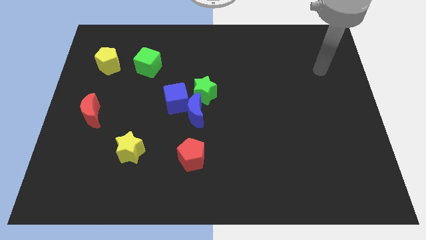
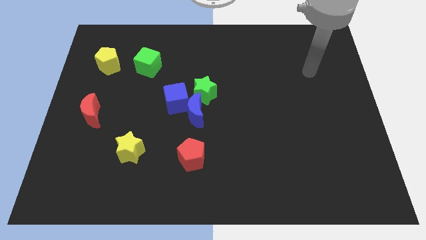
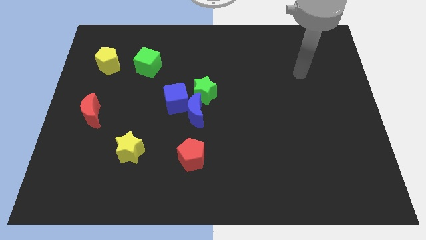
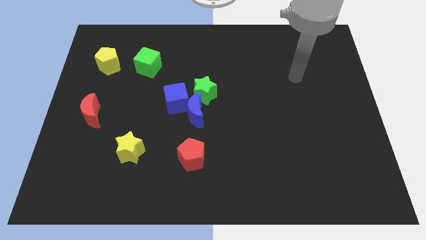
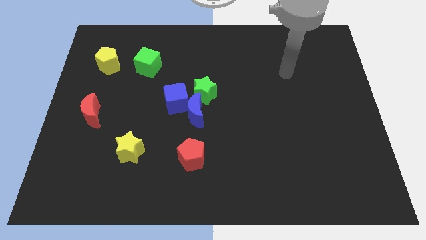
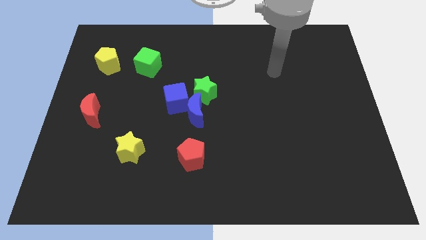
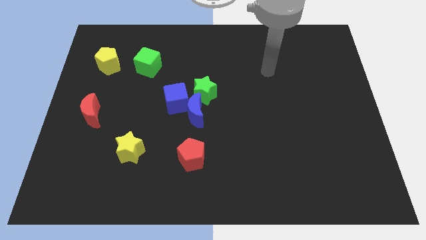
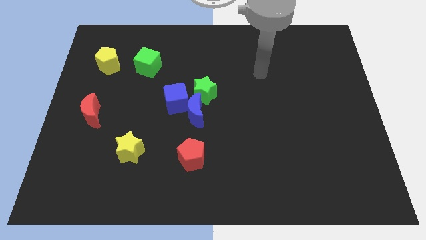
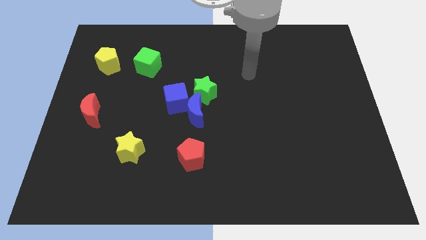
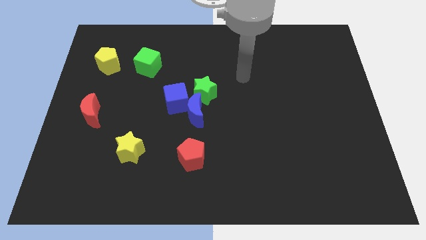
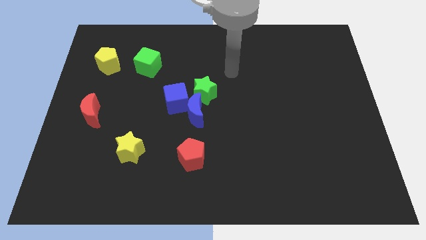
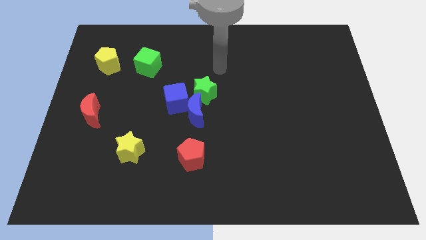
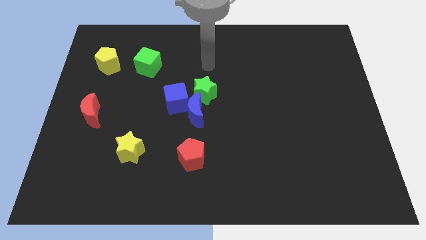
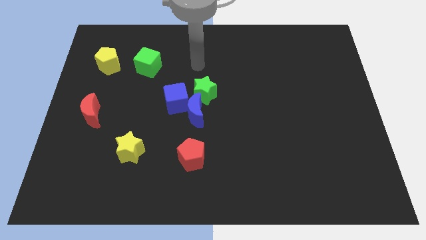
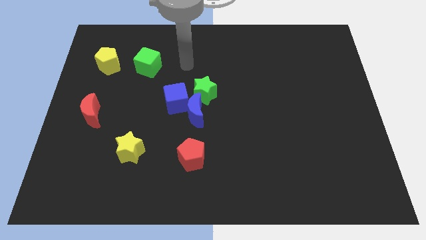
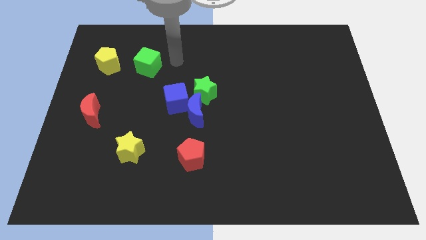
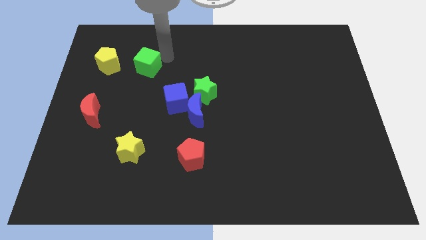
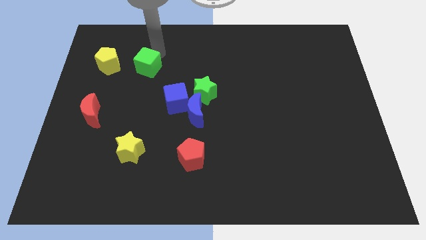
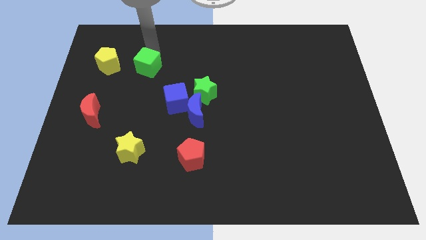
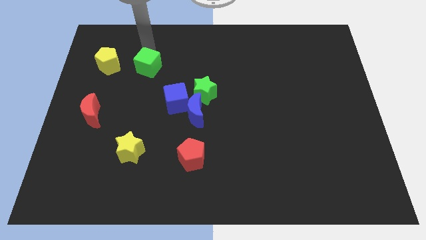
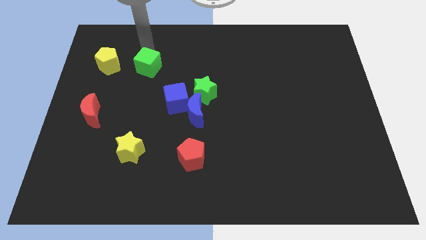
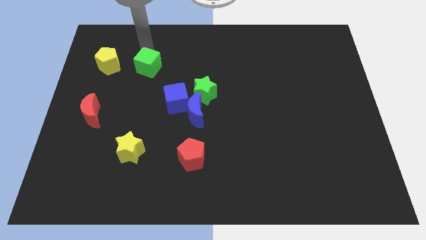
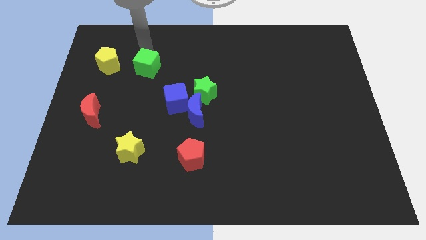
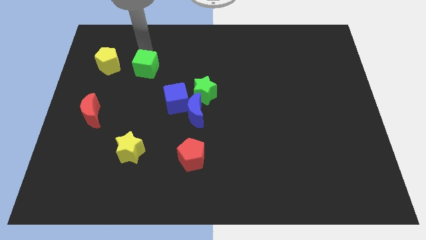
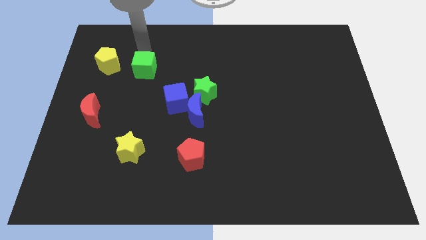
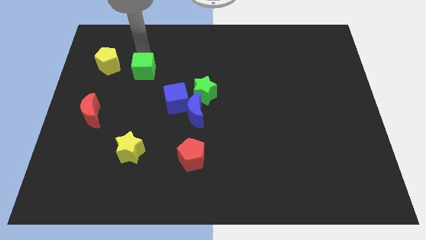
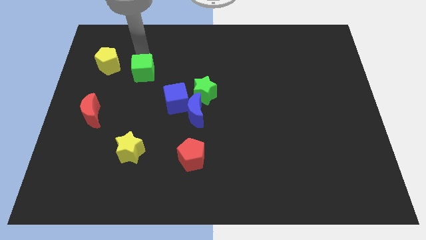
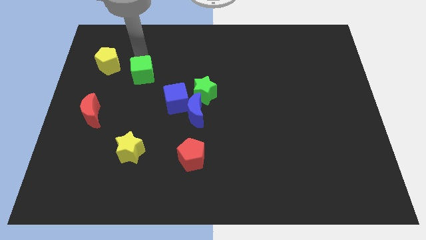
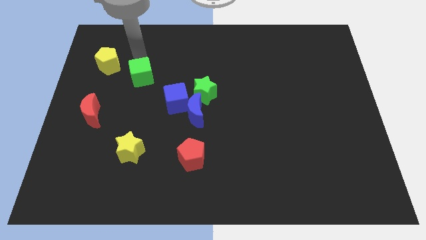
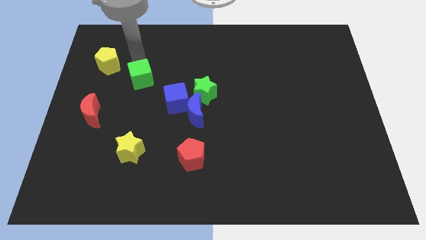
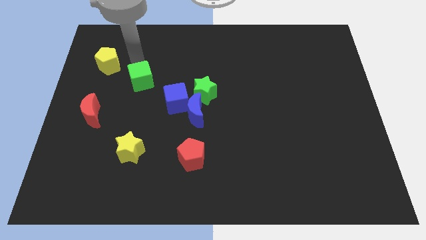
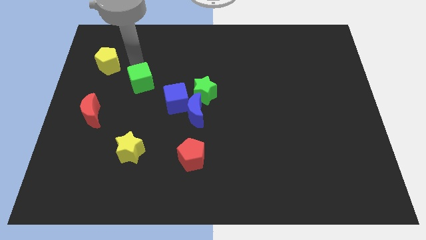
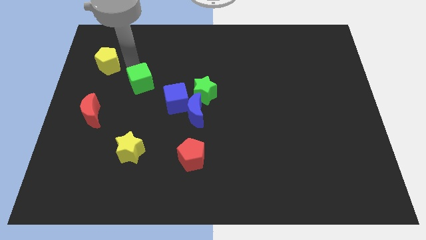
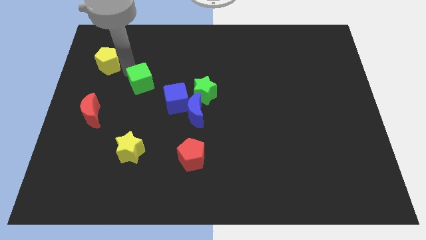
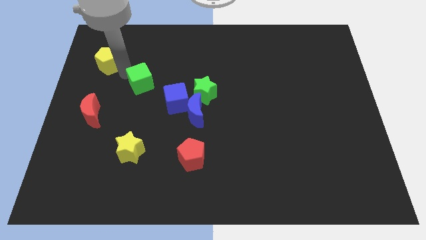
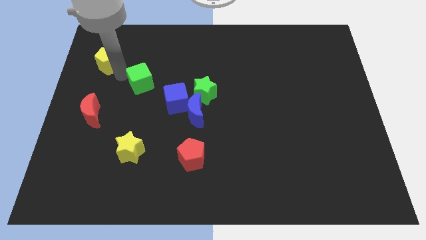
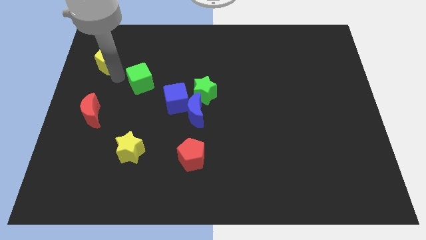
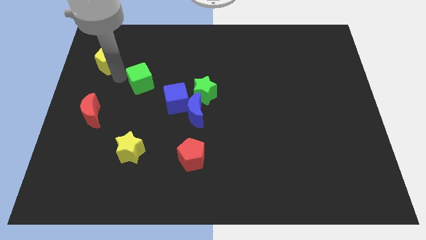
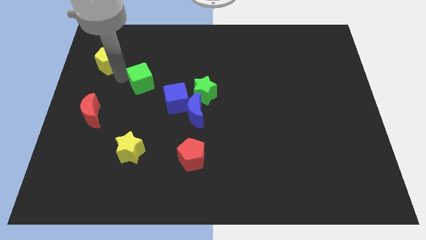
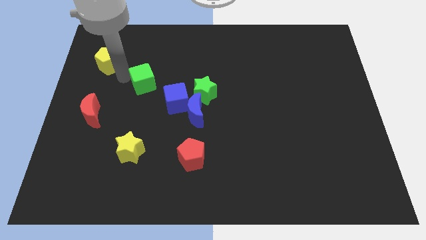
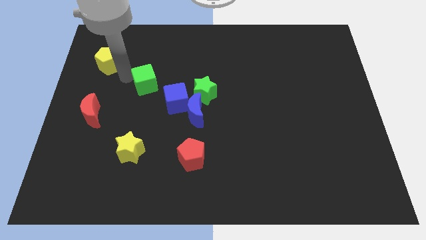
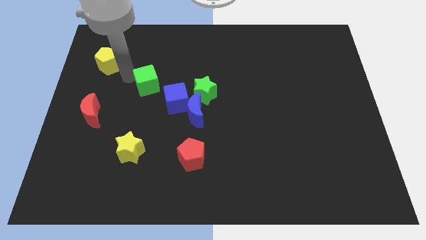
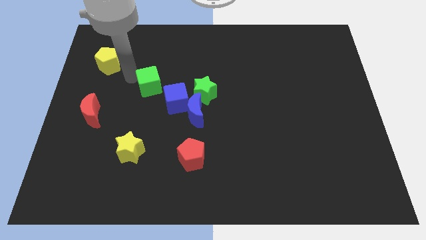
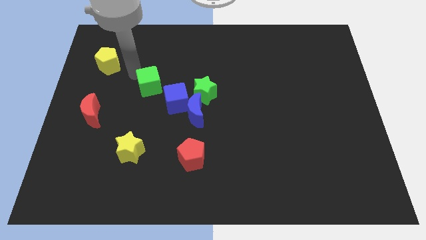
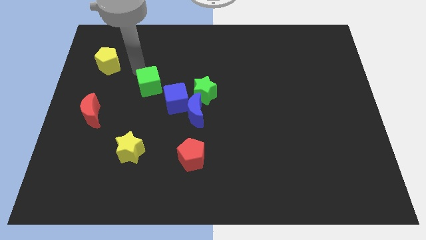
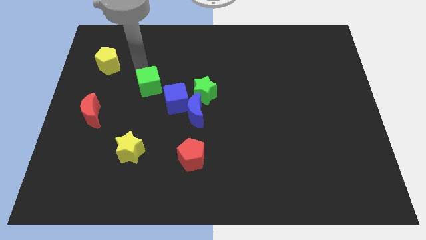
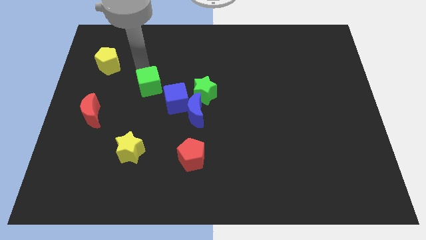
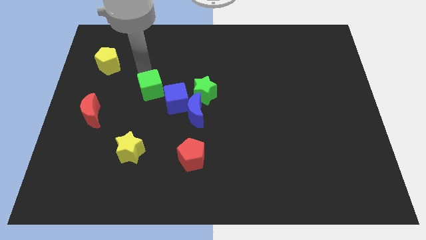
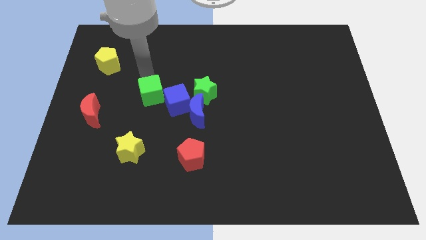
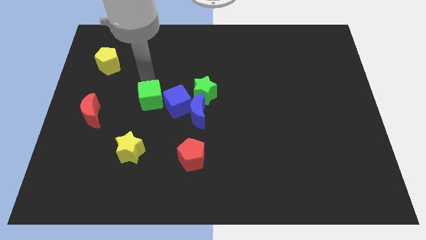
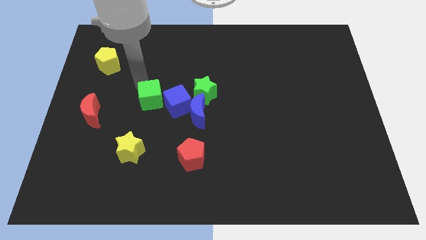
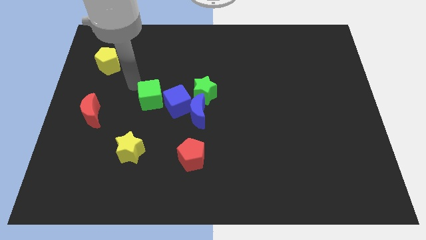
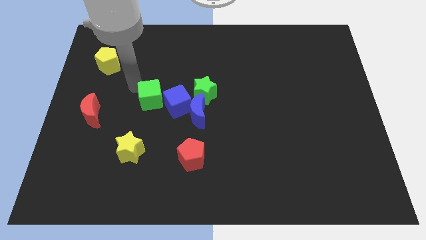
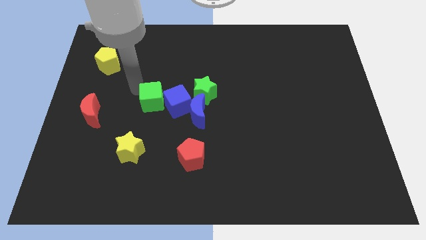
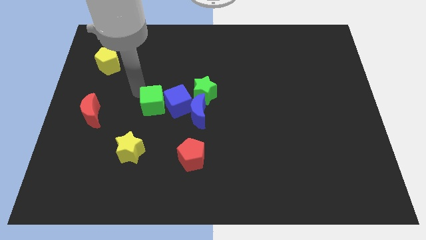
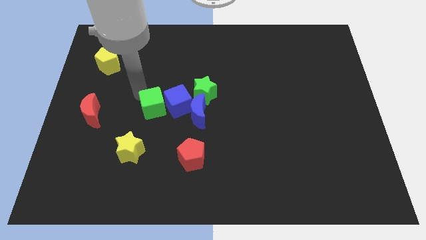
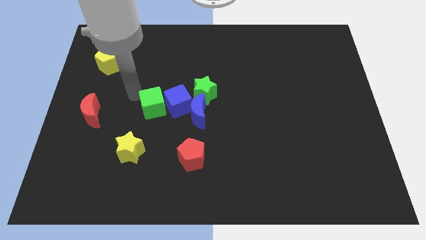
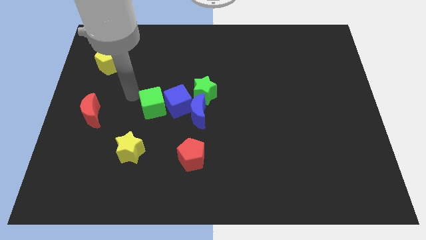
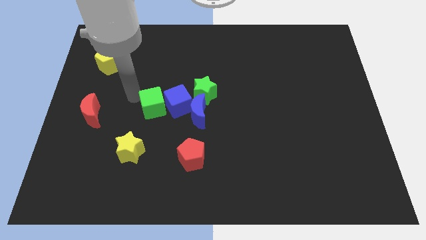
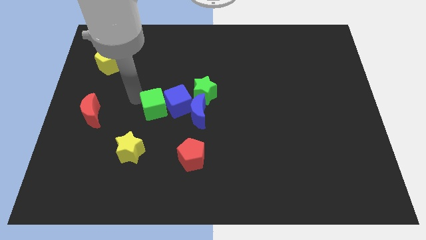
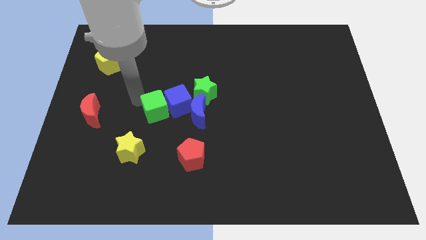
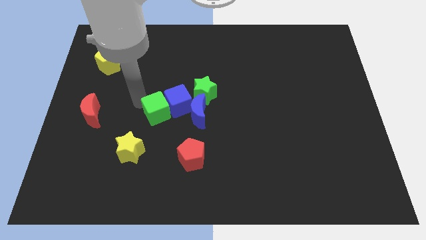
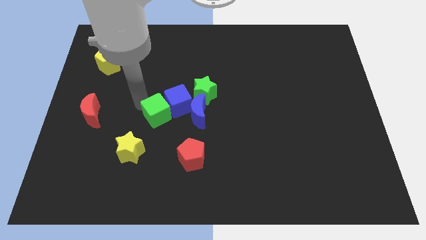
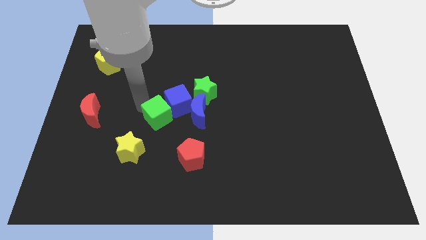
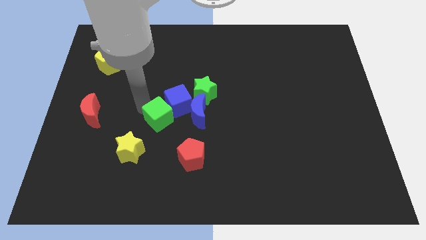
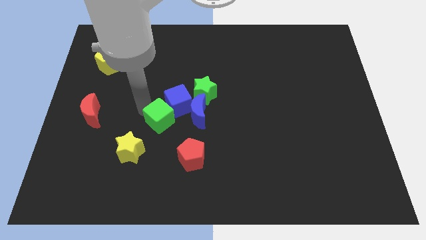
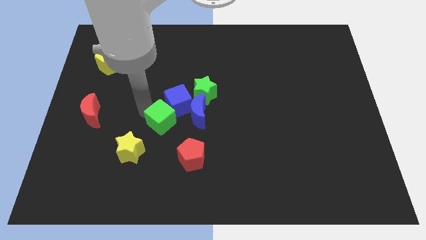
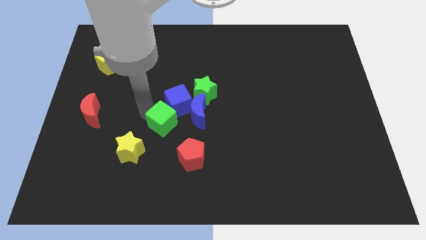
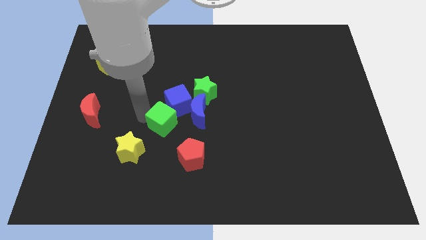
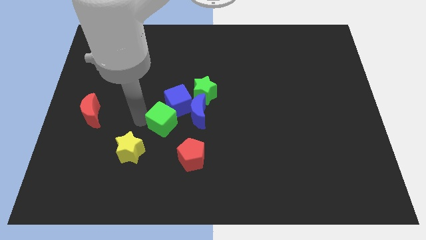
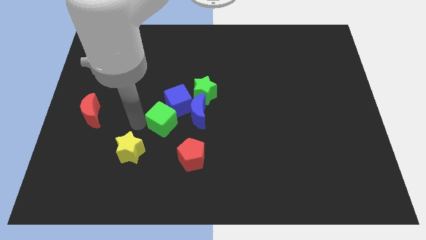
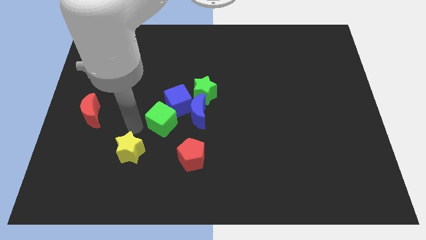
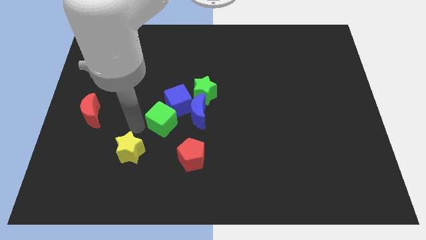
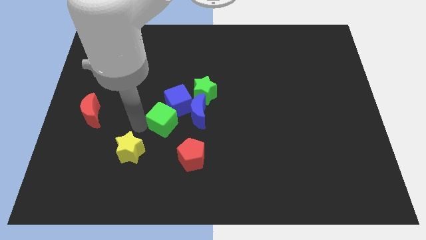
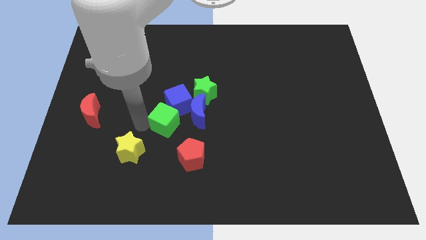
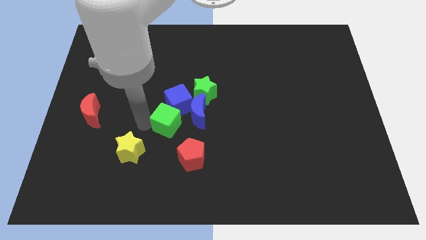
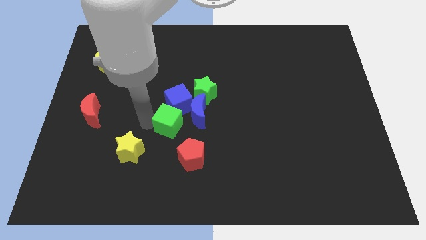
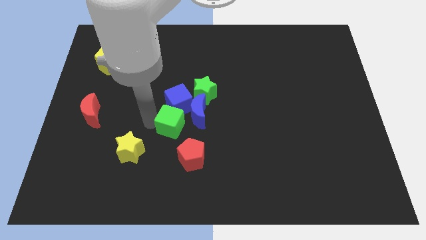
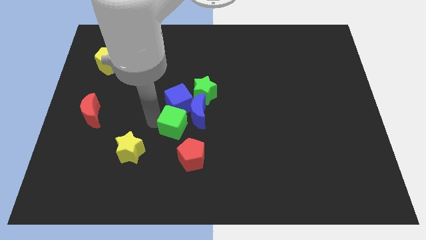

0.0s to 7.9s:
put the green cube to the blue moon

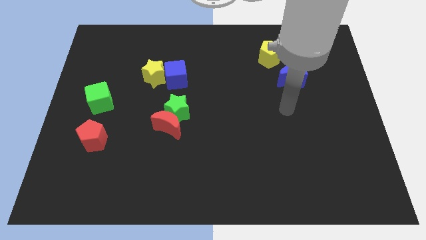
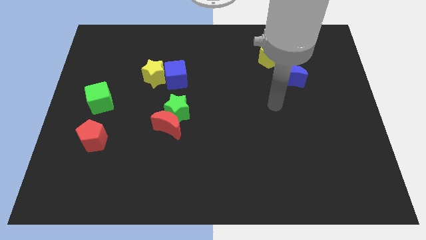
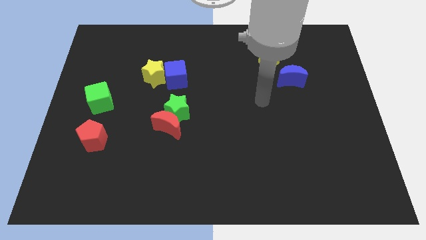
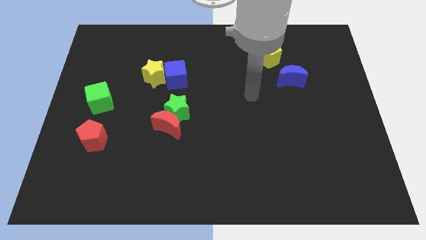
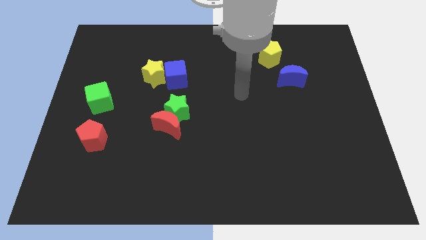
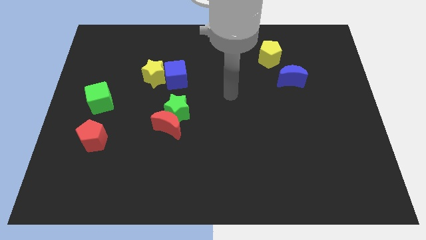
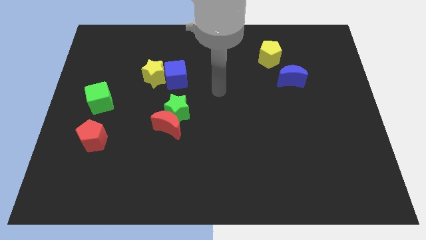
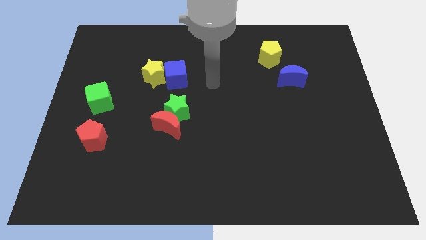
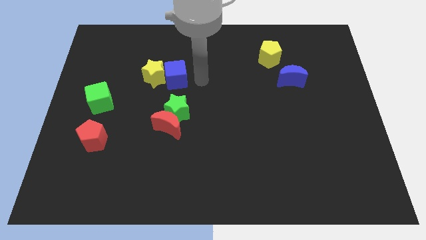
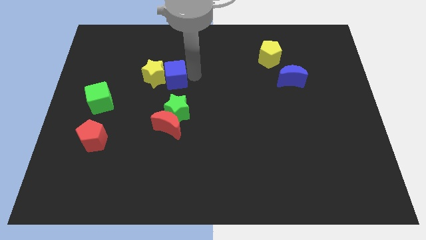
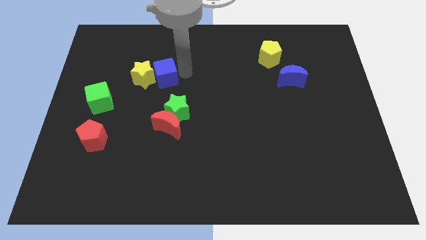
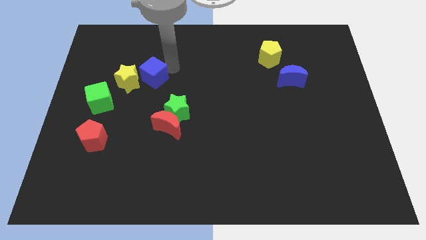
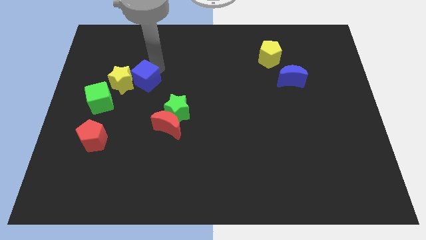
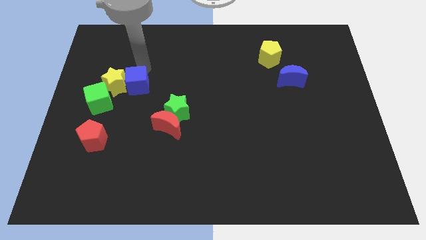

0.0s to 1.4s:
put the yellow star next to the green cube
